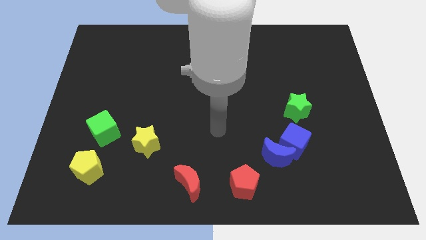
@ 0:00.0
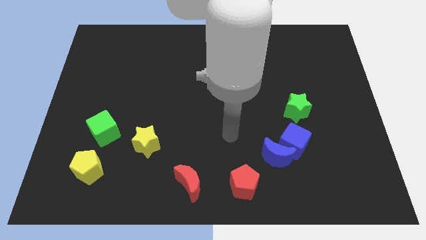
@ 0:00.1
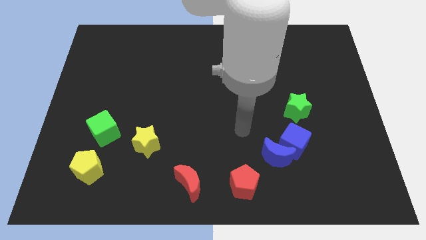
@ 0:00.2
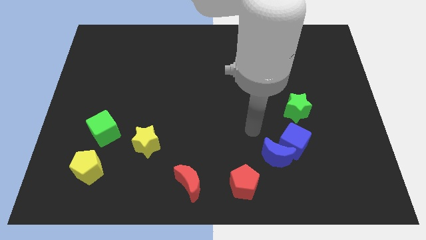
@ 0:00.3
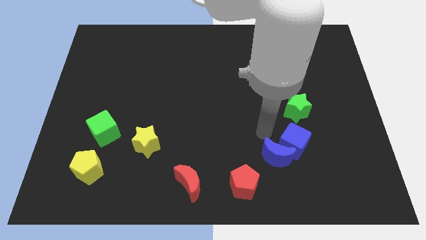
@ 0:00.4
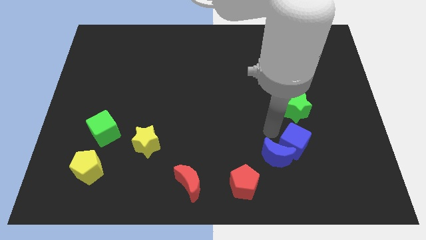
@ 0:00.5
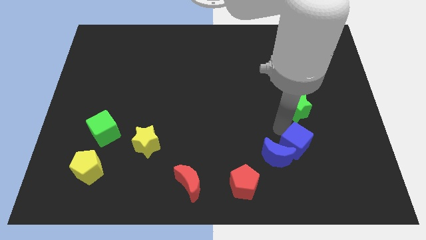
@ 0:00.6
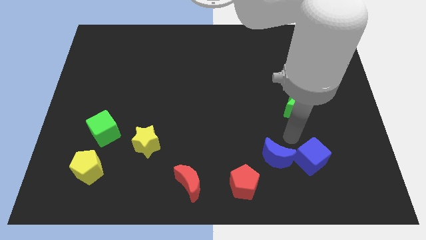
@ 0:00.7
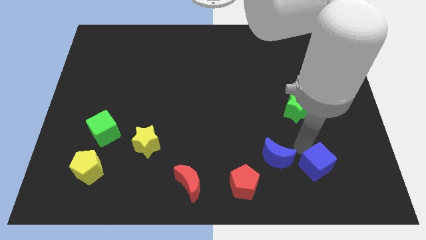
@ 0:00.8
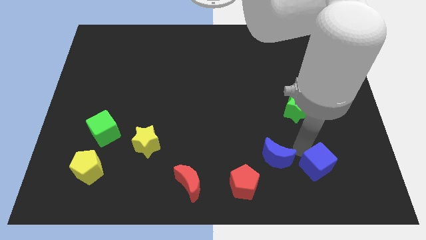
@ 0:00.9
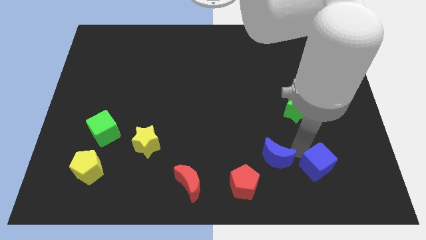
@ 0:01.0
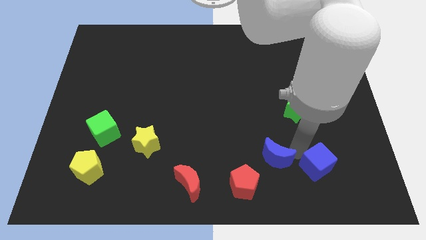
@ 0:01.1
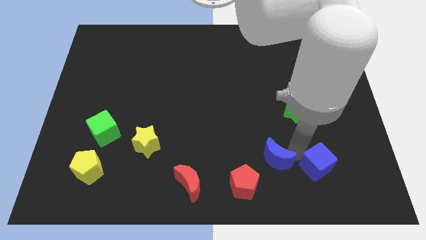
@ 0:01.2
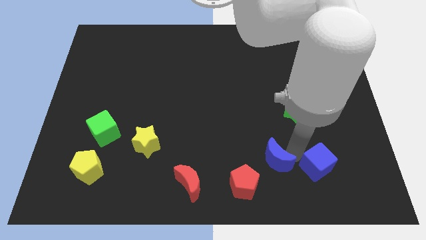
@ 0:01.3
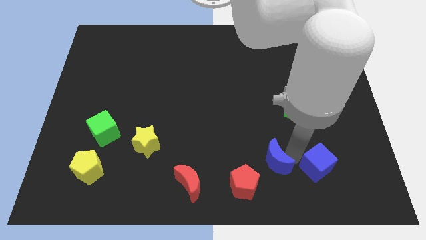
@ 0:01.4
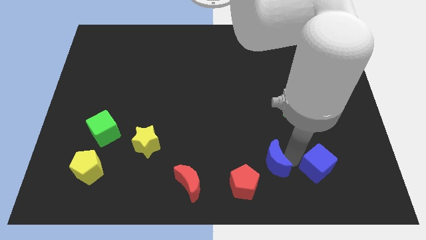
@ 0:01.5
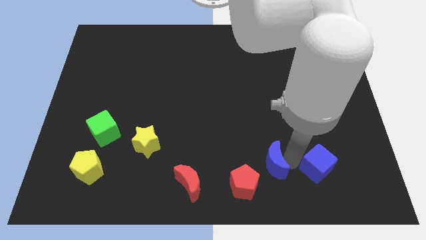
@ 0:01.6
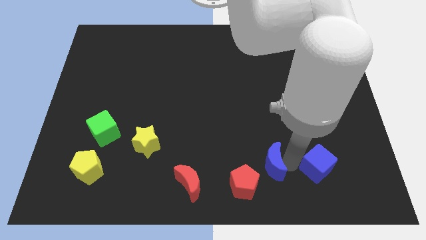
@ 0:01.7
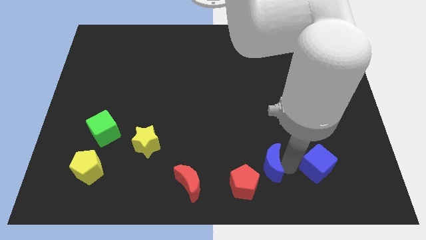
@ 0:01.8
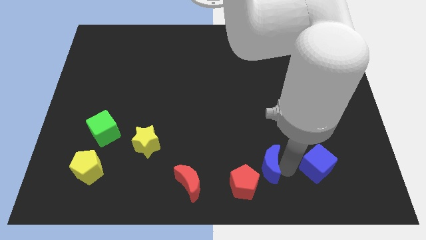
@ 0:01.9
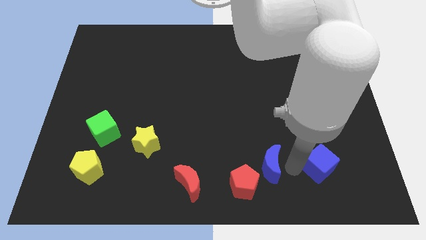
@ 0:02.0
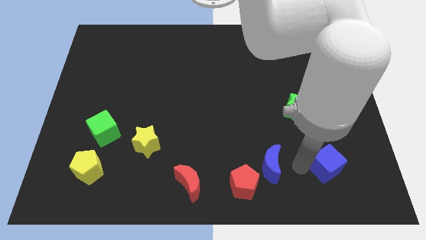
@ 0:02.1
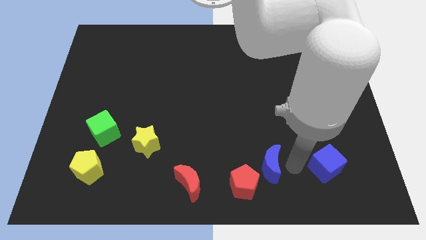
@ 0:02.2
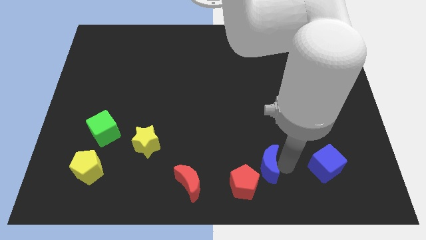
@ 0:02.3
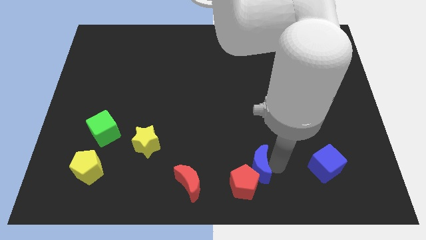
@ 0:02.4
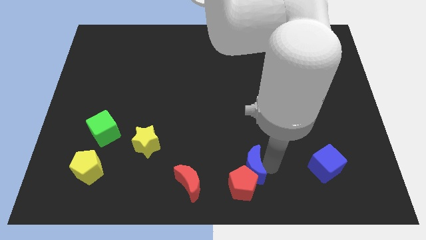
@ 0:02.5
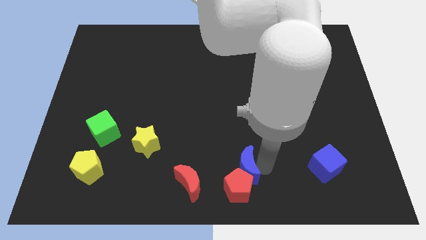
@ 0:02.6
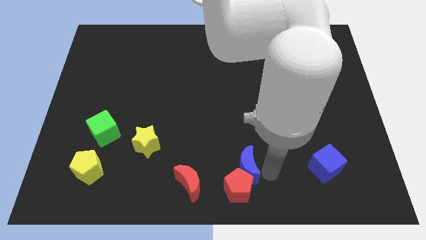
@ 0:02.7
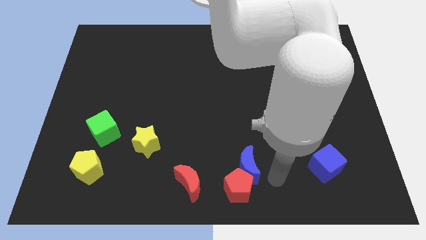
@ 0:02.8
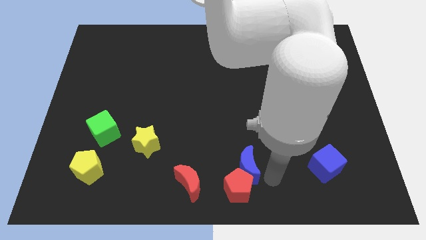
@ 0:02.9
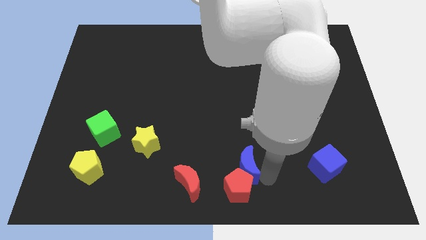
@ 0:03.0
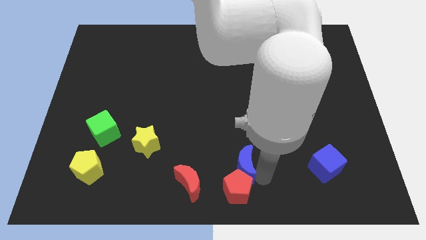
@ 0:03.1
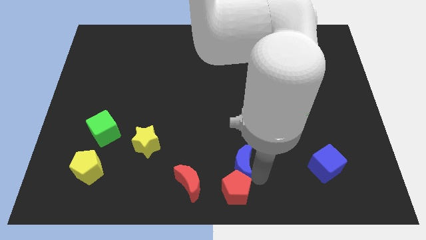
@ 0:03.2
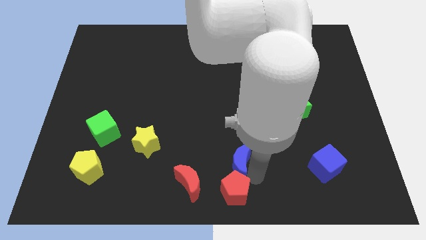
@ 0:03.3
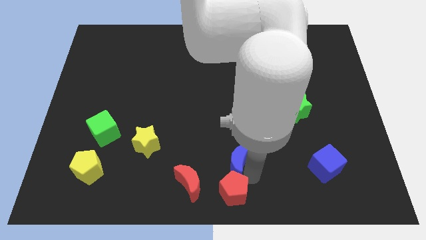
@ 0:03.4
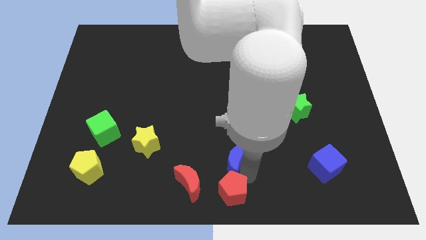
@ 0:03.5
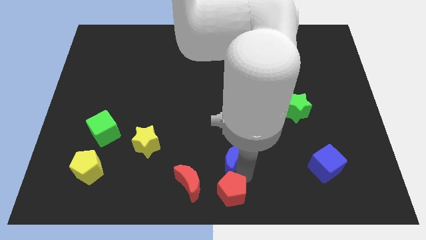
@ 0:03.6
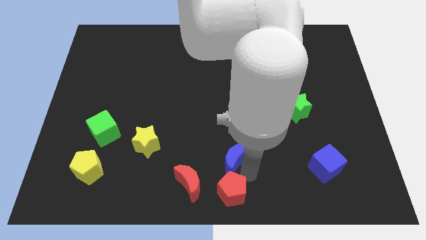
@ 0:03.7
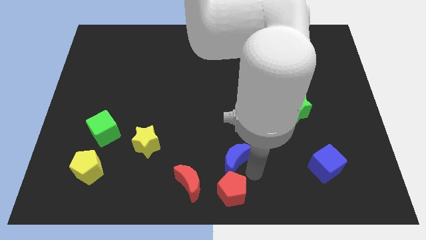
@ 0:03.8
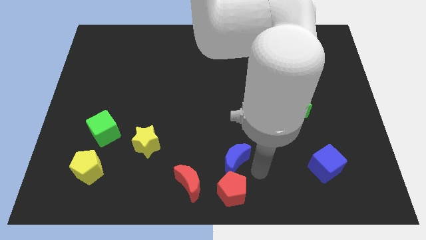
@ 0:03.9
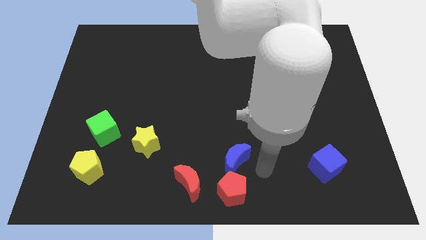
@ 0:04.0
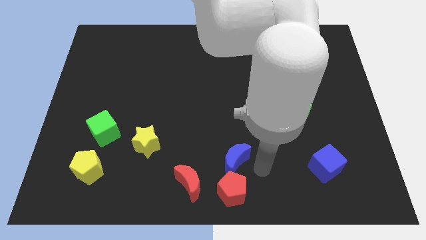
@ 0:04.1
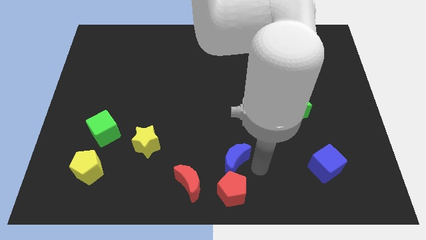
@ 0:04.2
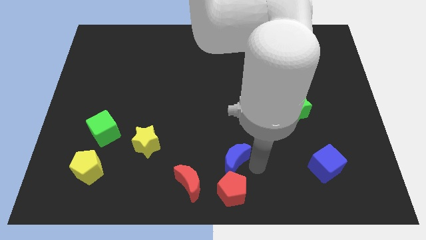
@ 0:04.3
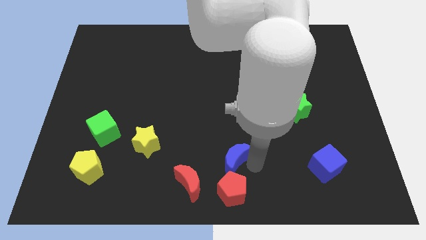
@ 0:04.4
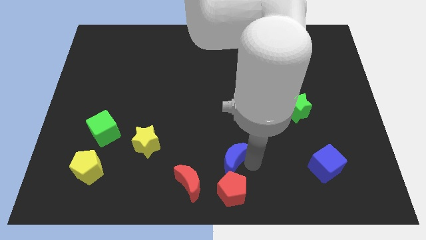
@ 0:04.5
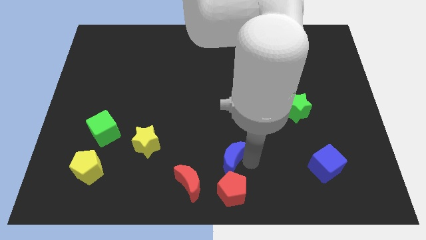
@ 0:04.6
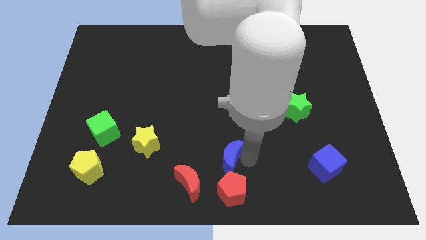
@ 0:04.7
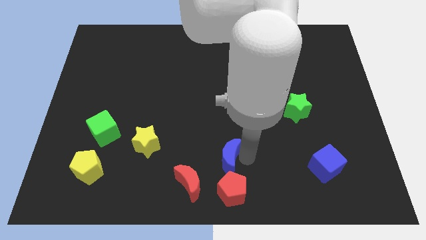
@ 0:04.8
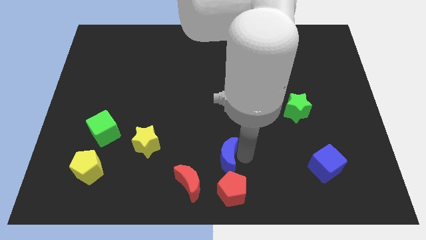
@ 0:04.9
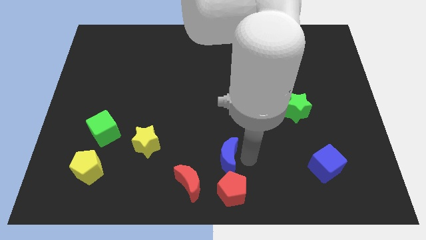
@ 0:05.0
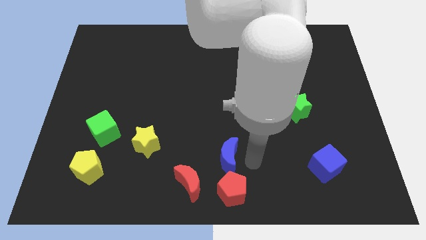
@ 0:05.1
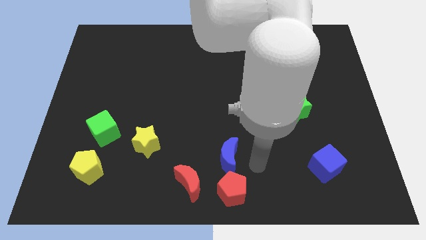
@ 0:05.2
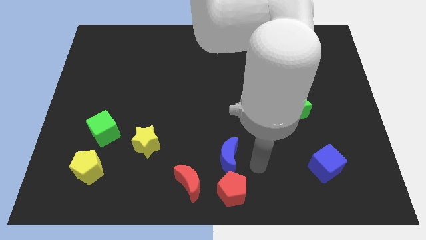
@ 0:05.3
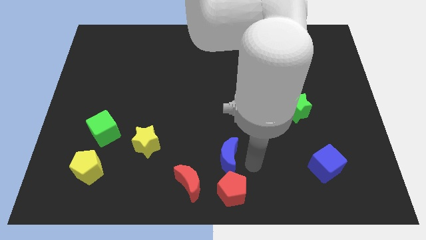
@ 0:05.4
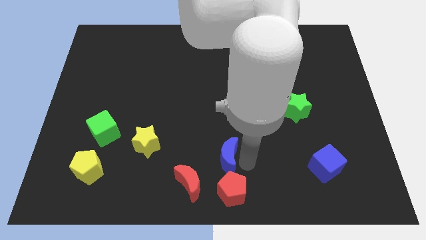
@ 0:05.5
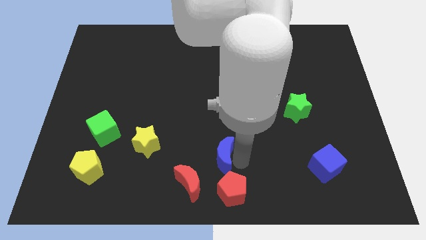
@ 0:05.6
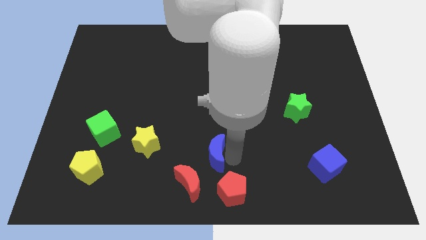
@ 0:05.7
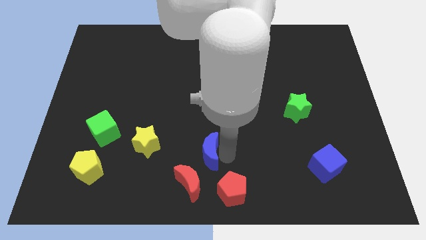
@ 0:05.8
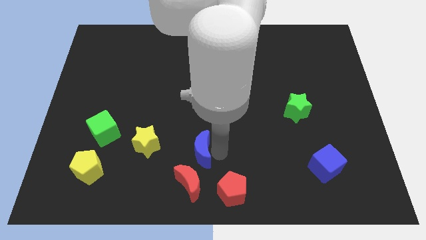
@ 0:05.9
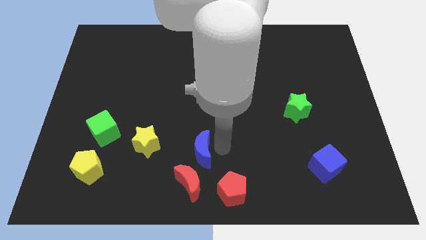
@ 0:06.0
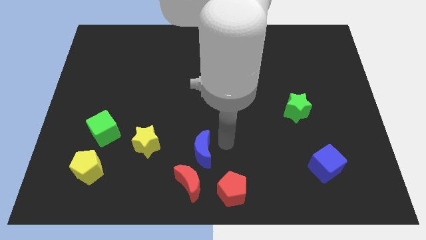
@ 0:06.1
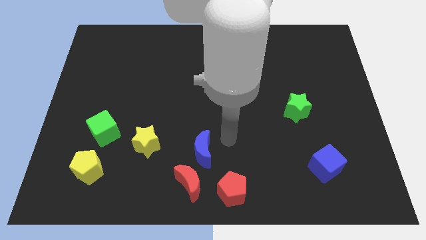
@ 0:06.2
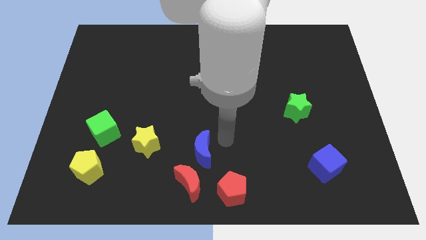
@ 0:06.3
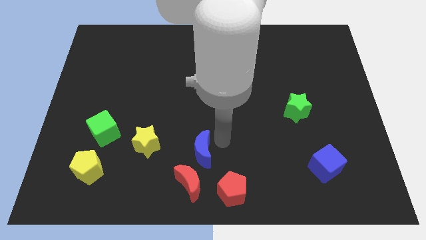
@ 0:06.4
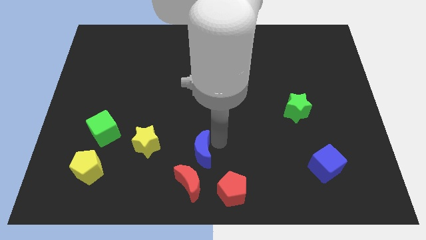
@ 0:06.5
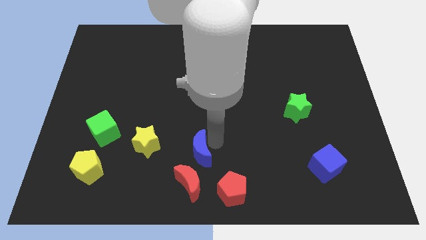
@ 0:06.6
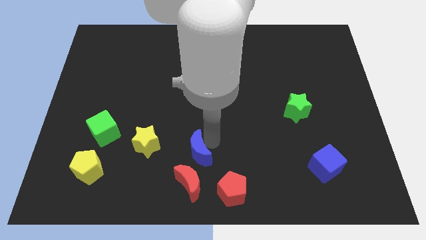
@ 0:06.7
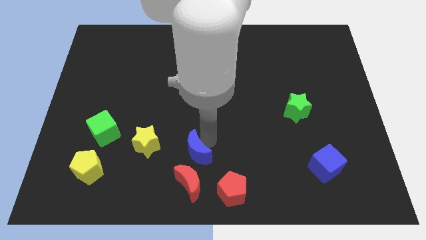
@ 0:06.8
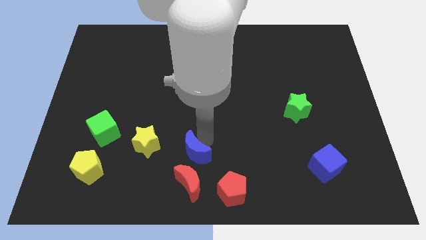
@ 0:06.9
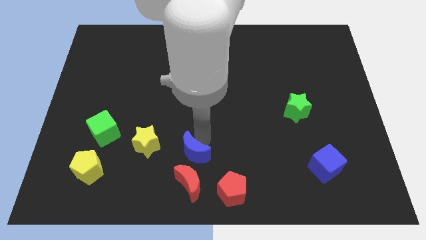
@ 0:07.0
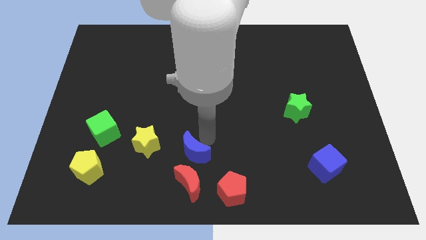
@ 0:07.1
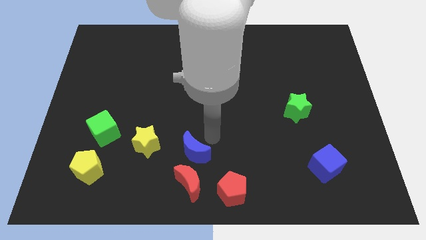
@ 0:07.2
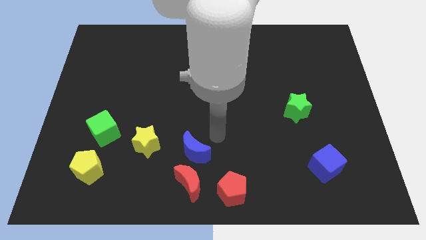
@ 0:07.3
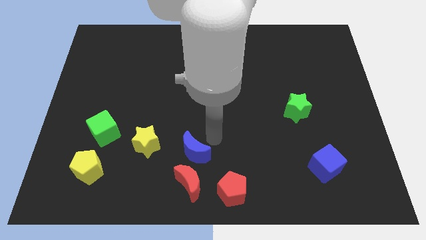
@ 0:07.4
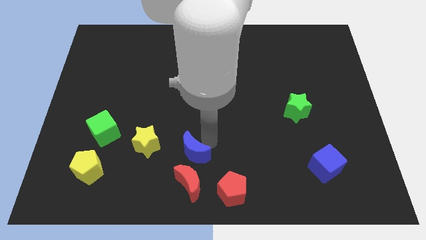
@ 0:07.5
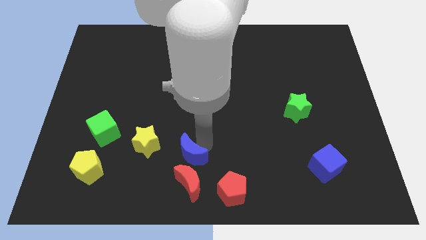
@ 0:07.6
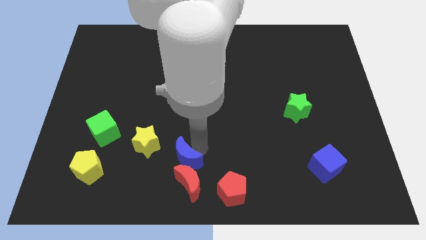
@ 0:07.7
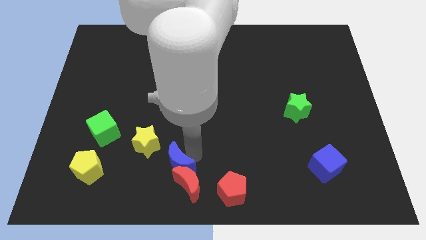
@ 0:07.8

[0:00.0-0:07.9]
slide the blue moon to the left

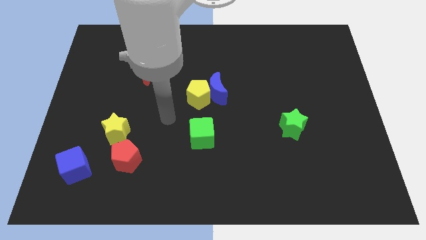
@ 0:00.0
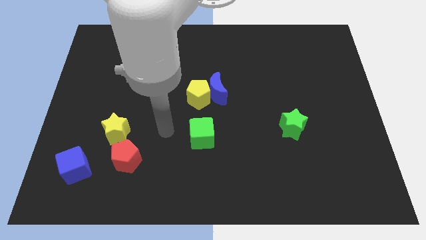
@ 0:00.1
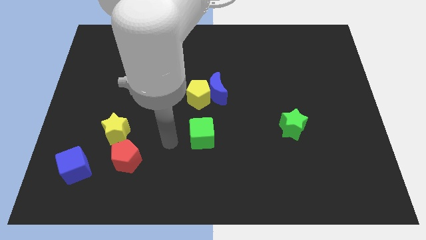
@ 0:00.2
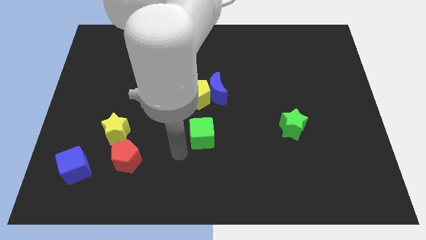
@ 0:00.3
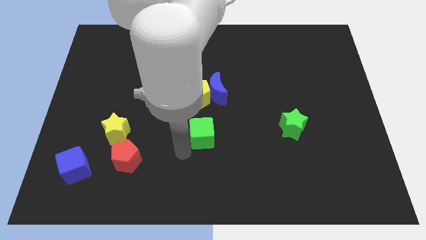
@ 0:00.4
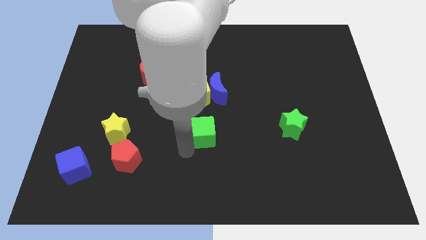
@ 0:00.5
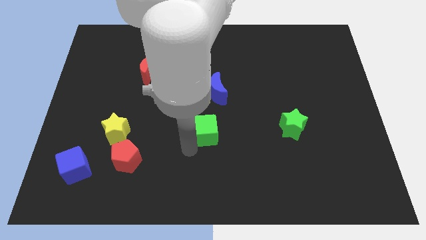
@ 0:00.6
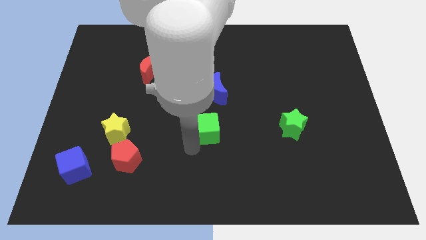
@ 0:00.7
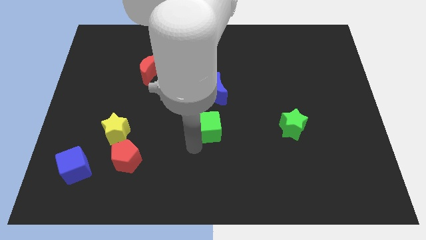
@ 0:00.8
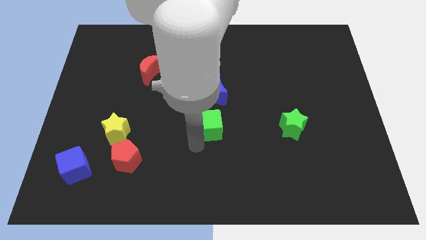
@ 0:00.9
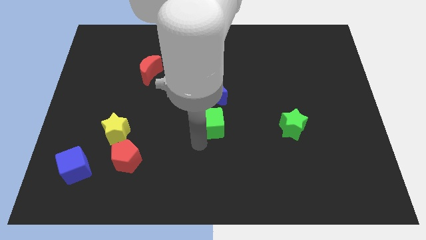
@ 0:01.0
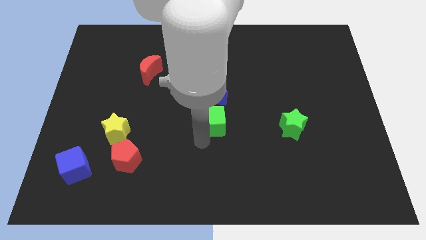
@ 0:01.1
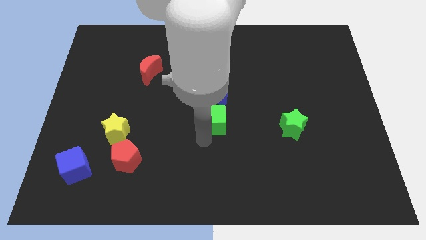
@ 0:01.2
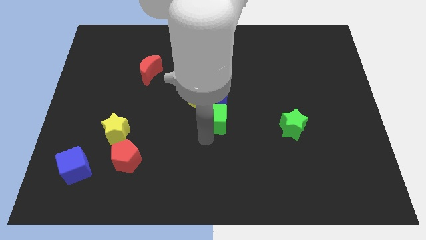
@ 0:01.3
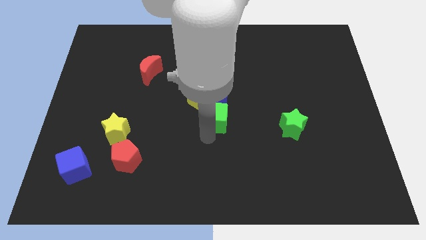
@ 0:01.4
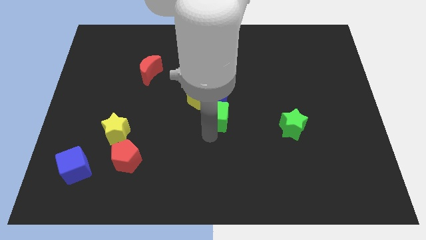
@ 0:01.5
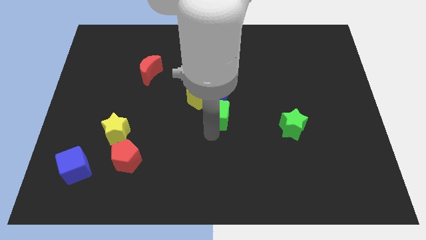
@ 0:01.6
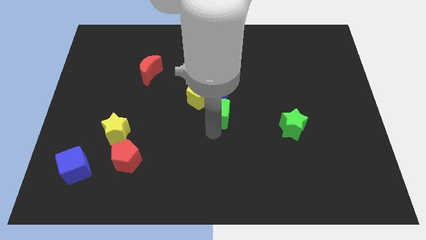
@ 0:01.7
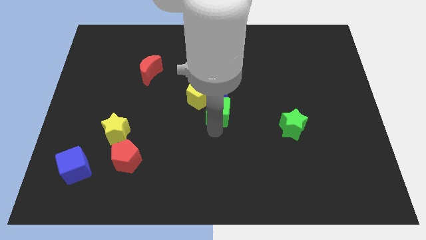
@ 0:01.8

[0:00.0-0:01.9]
slightly push the green cube upwards and right diagonally
